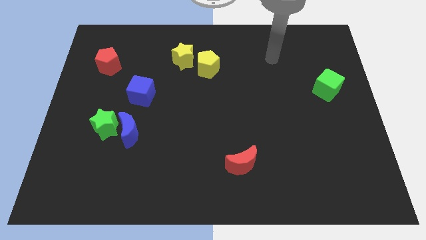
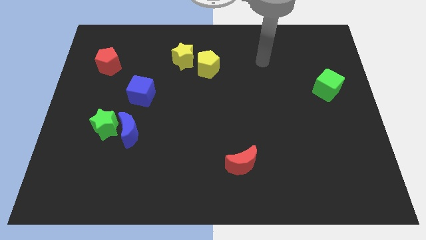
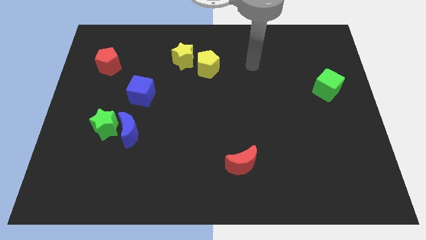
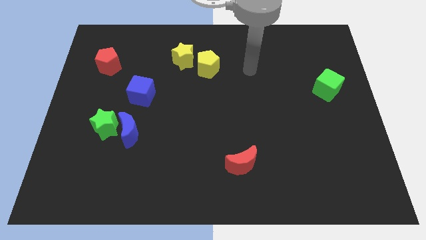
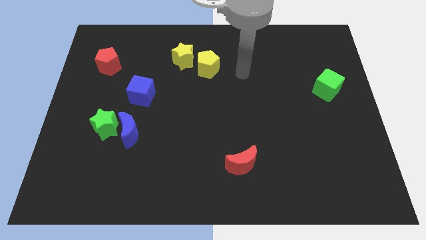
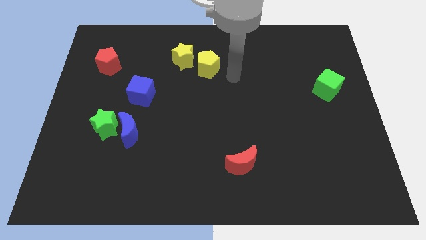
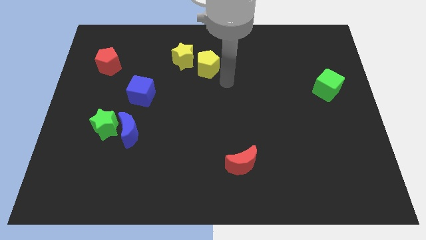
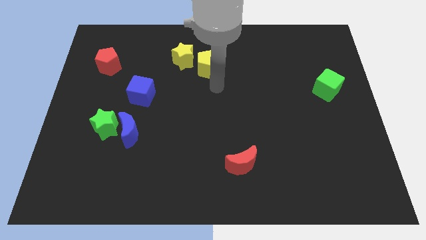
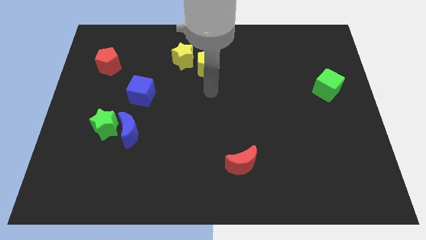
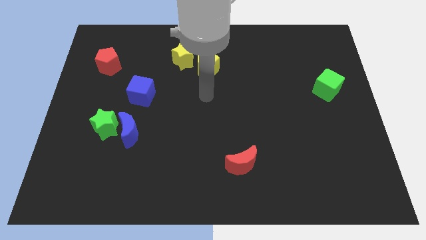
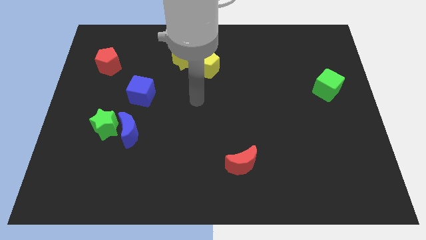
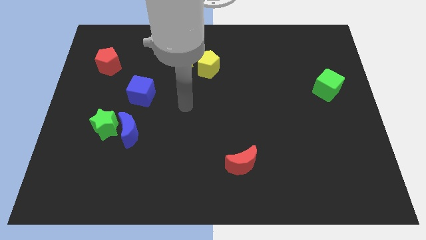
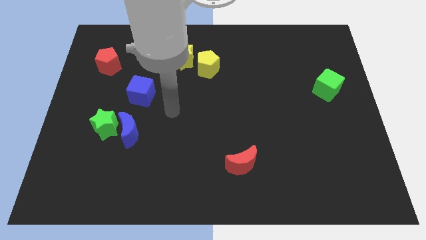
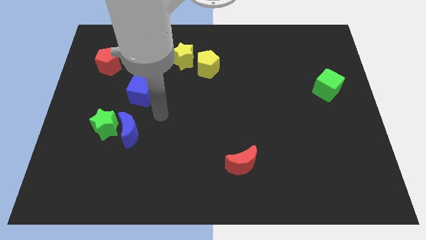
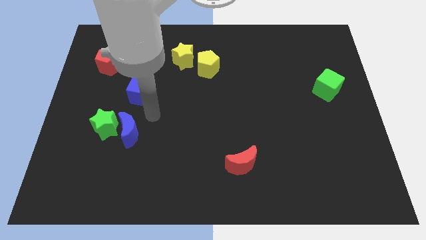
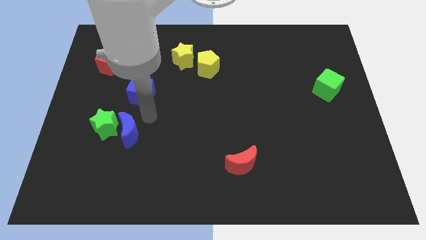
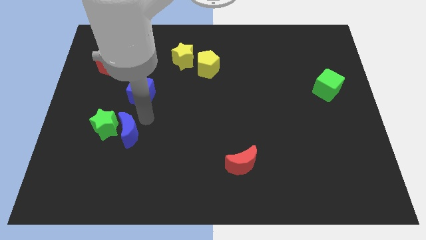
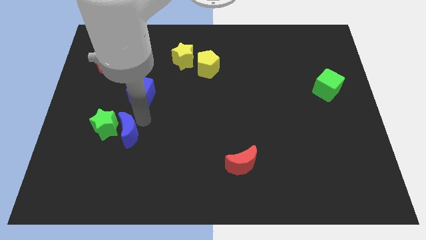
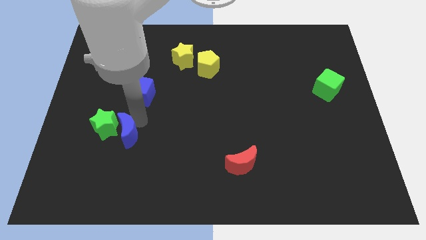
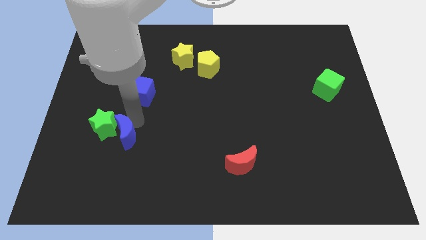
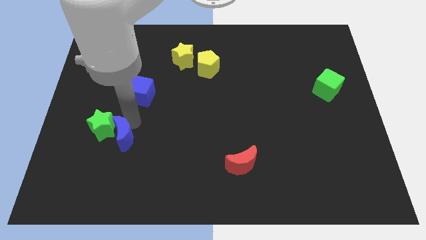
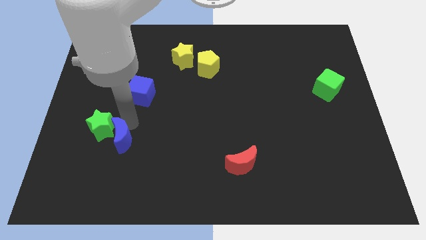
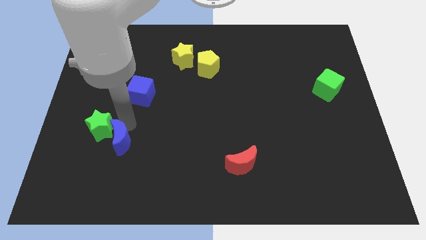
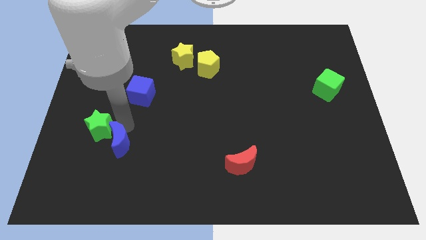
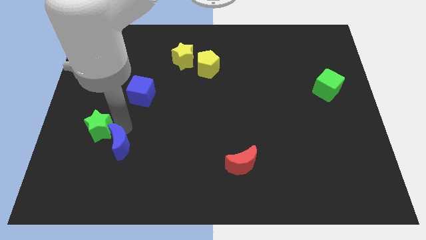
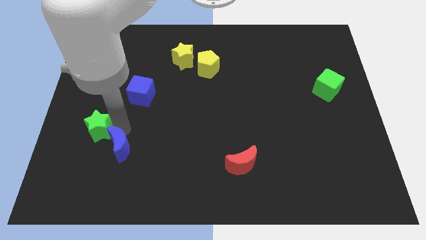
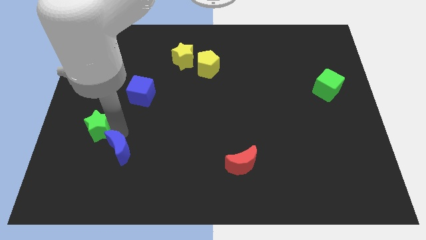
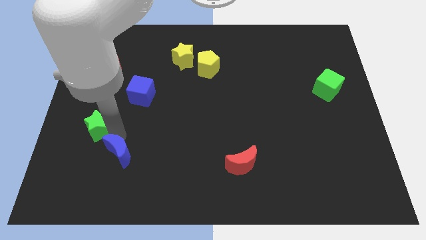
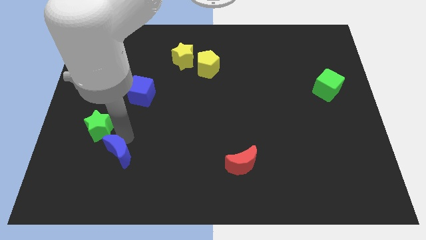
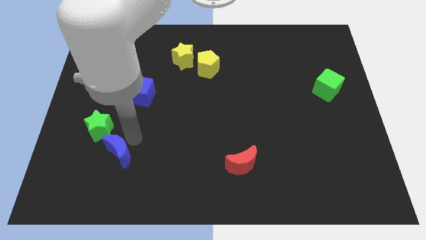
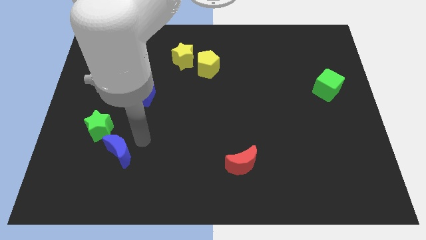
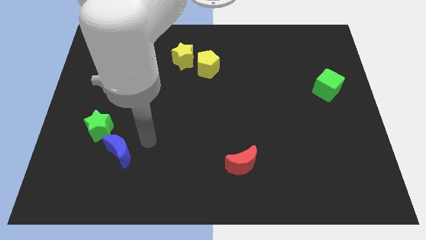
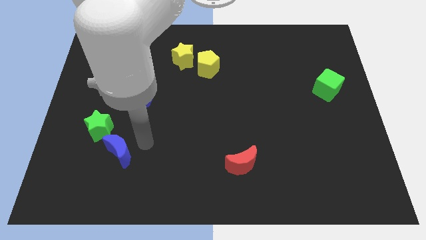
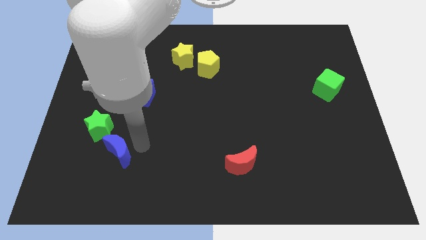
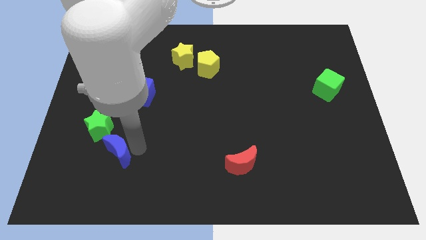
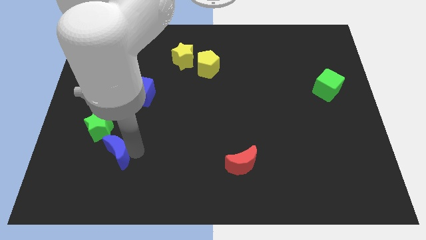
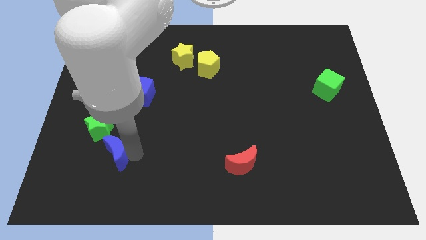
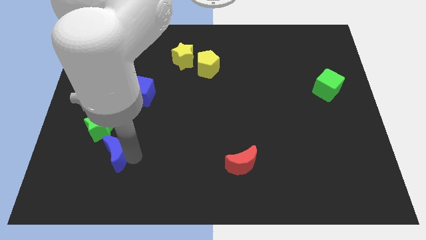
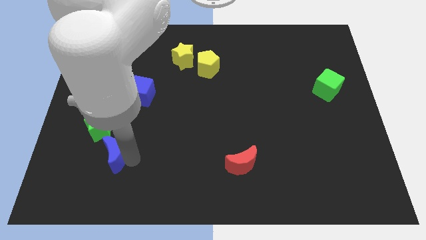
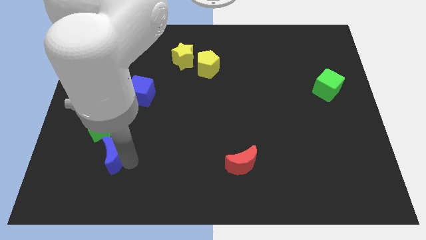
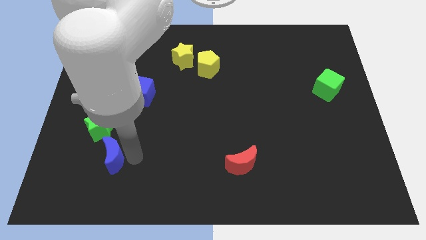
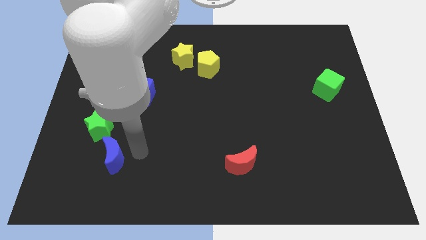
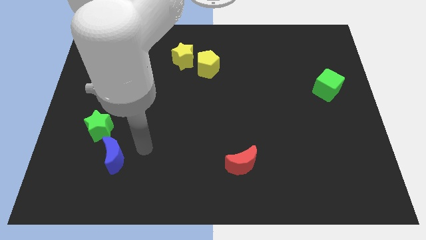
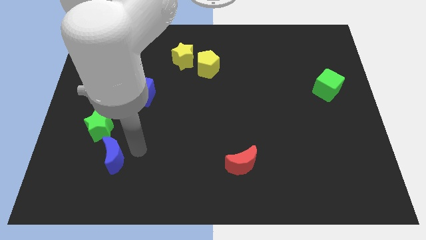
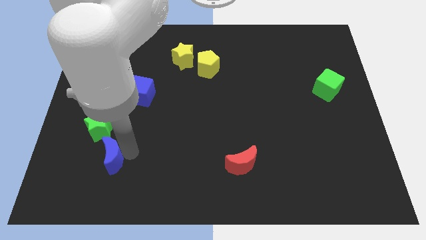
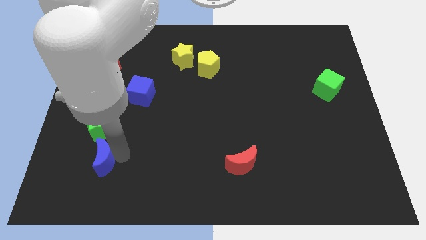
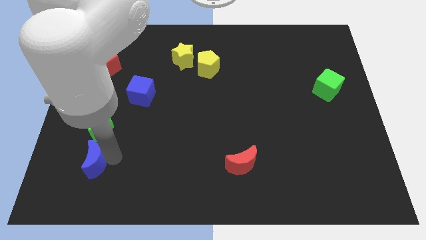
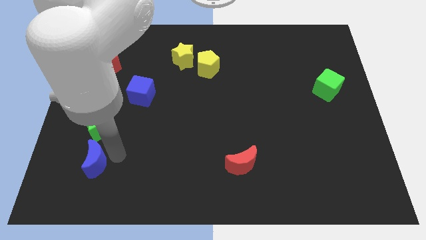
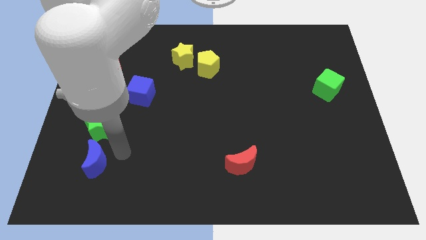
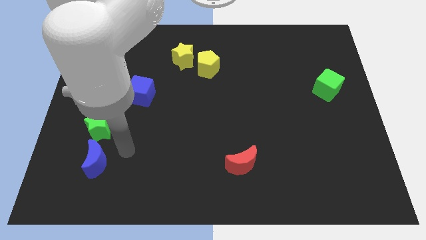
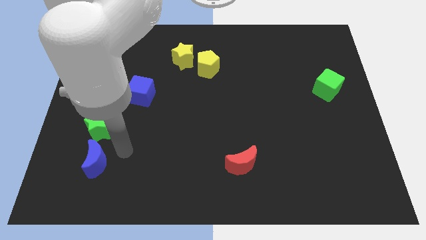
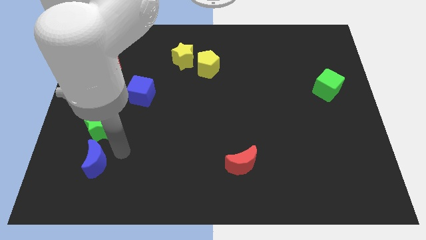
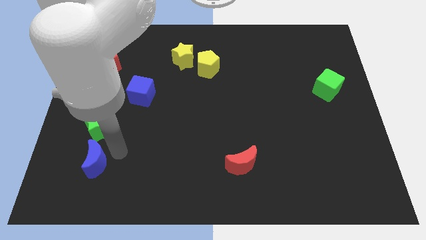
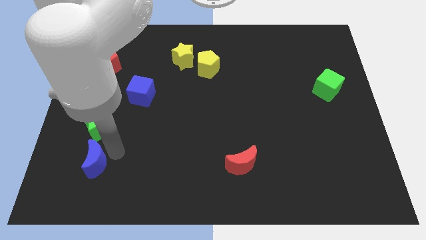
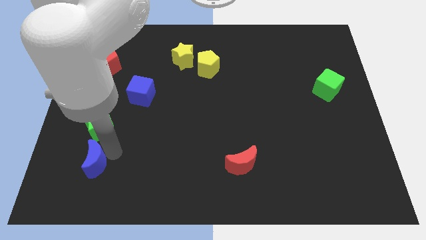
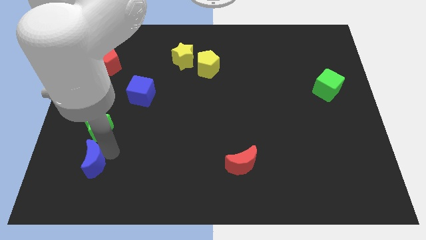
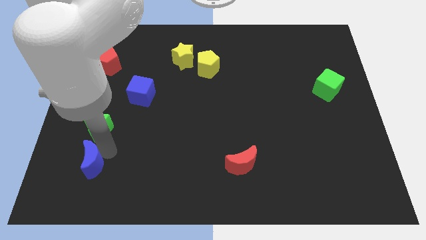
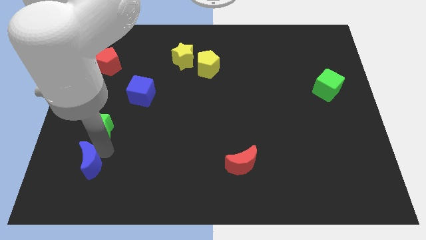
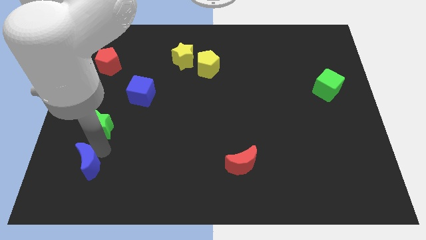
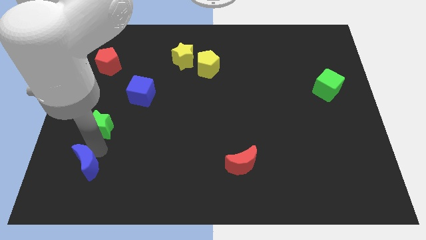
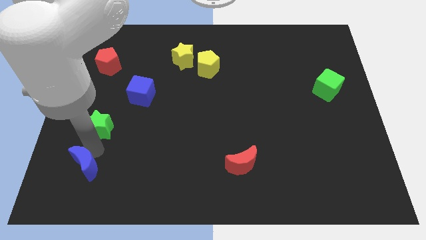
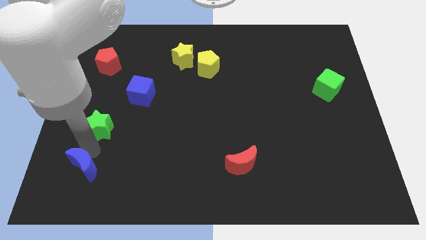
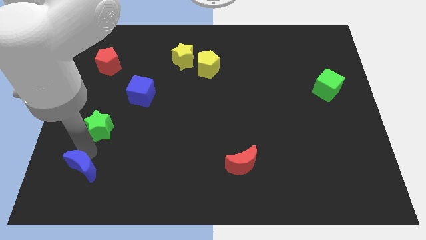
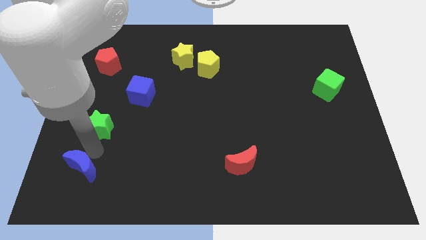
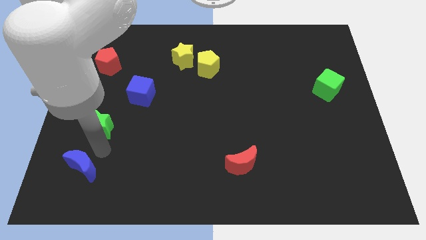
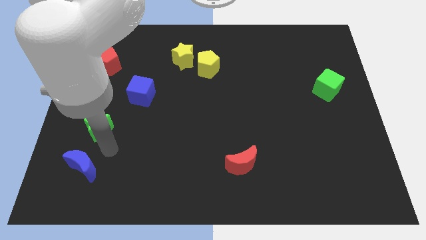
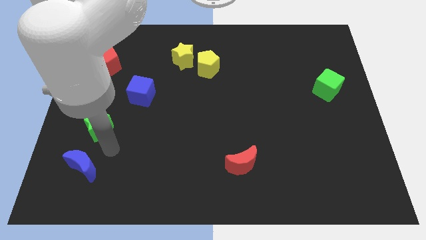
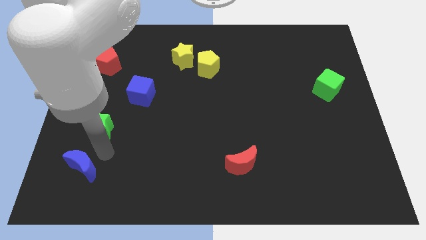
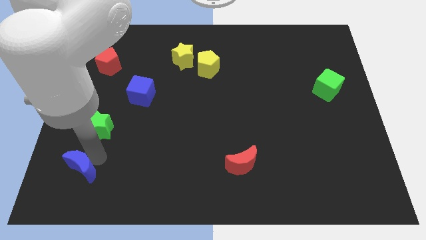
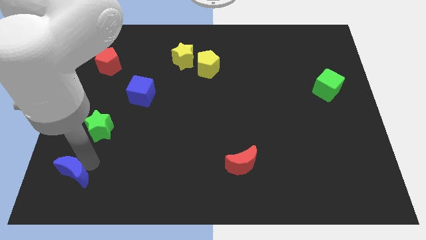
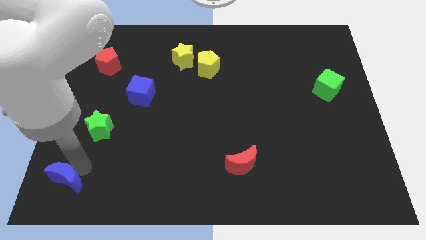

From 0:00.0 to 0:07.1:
slide the blue moon to the bottom left
